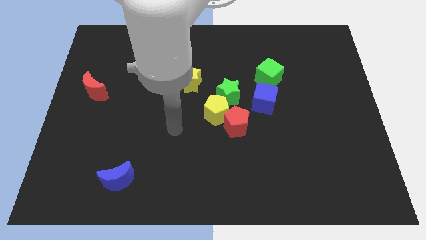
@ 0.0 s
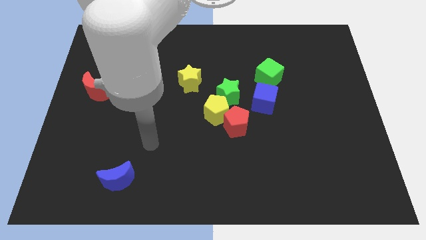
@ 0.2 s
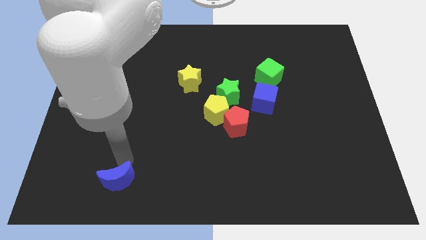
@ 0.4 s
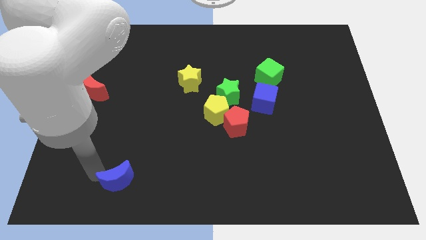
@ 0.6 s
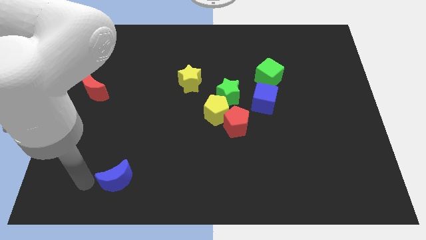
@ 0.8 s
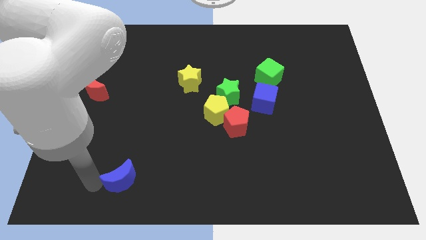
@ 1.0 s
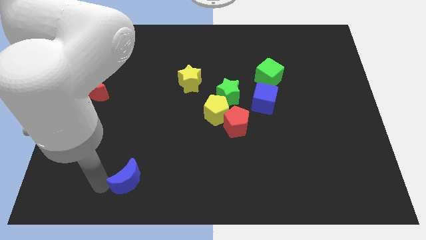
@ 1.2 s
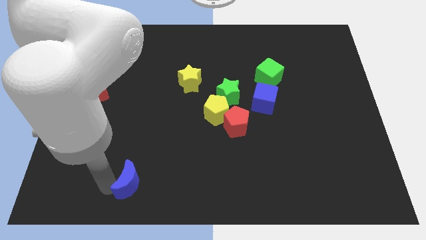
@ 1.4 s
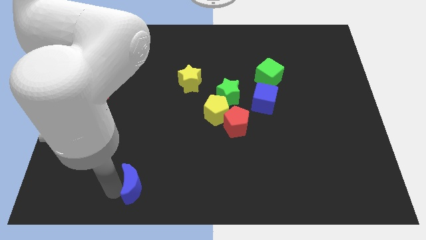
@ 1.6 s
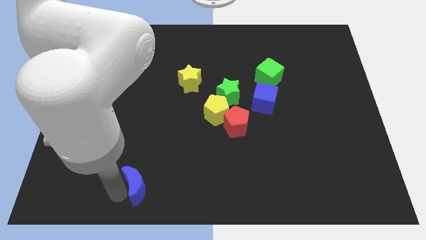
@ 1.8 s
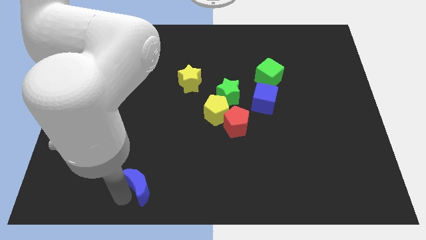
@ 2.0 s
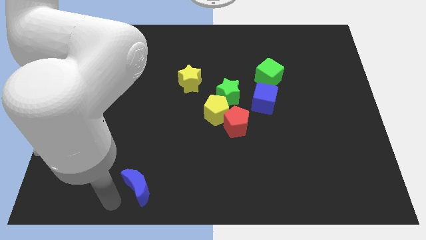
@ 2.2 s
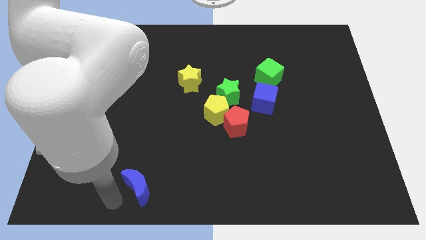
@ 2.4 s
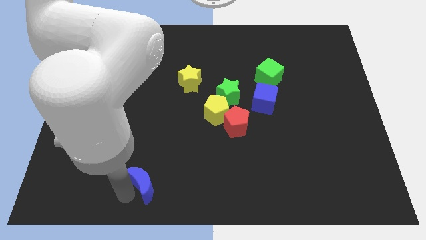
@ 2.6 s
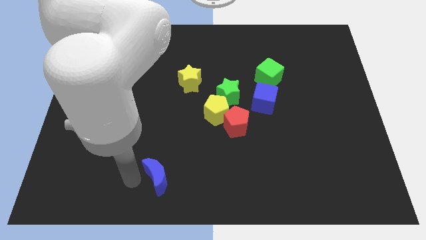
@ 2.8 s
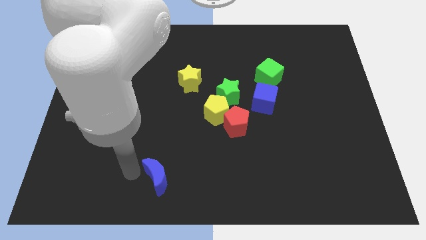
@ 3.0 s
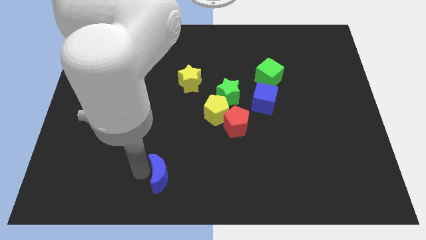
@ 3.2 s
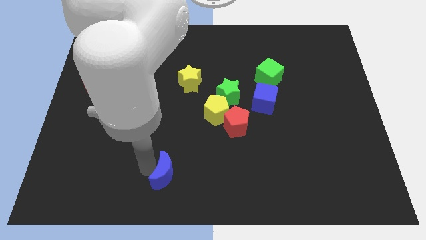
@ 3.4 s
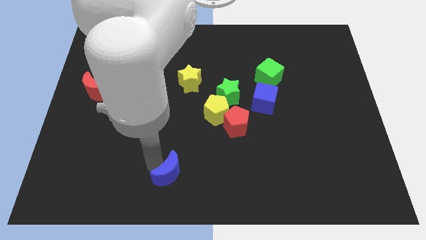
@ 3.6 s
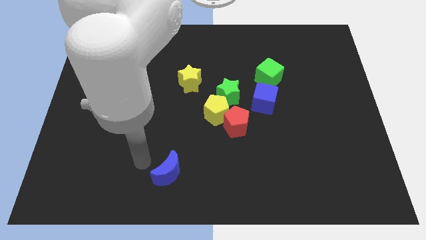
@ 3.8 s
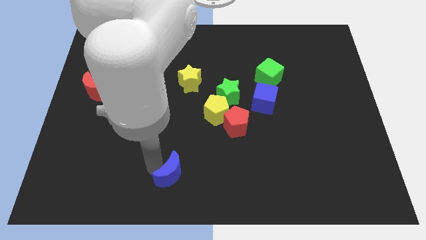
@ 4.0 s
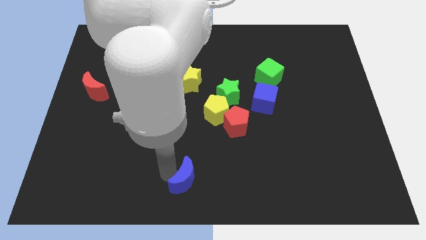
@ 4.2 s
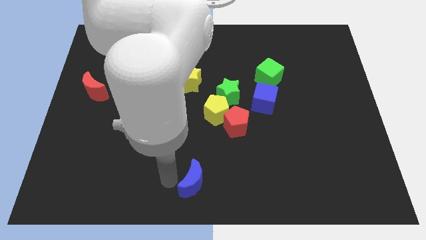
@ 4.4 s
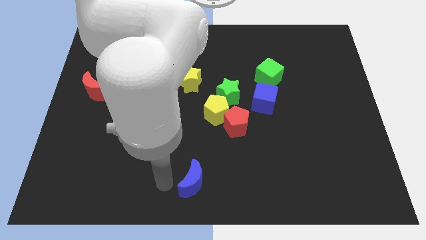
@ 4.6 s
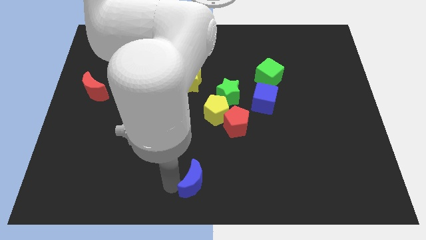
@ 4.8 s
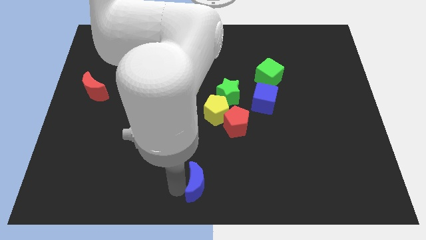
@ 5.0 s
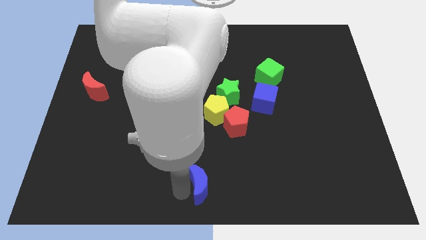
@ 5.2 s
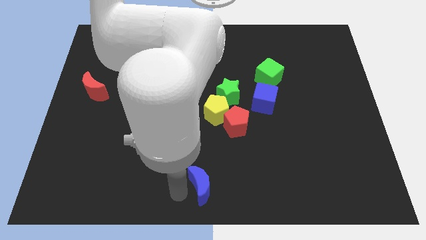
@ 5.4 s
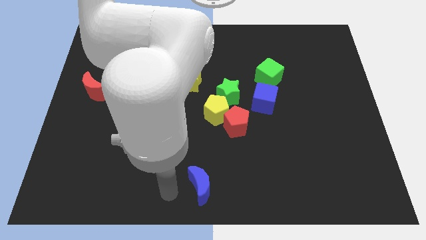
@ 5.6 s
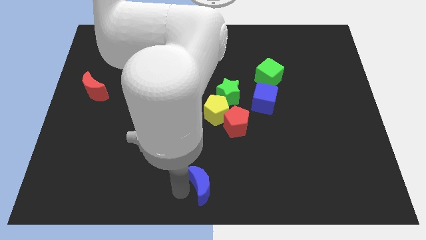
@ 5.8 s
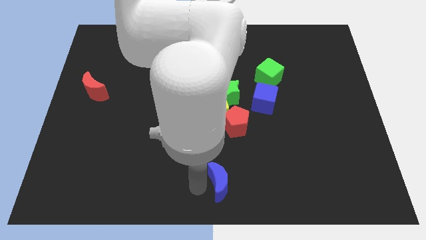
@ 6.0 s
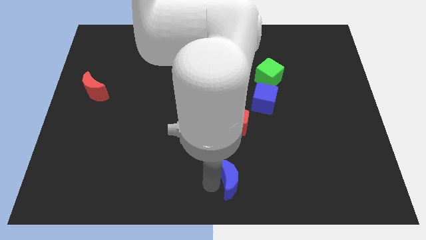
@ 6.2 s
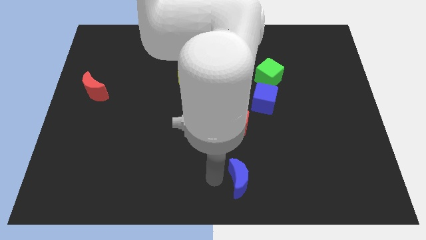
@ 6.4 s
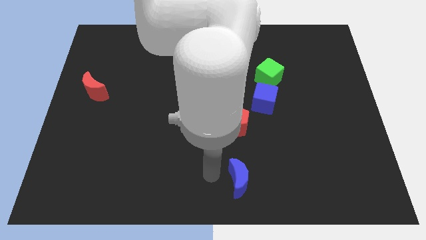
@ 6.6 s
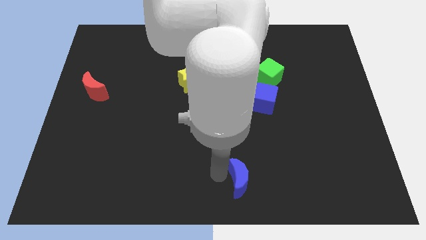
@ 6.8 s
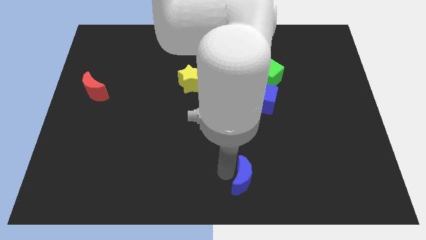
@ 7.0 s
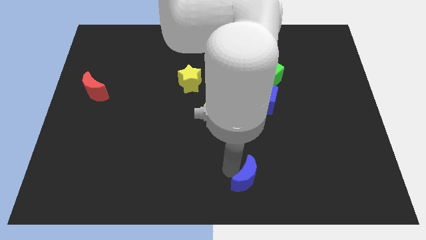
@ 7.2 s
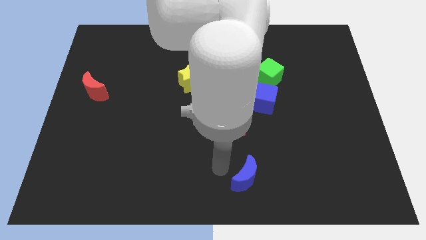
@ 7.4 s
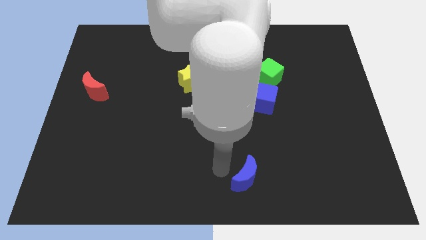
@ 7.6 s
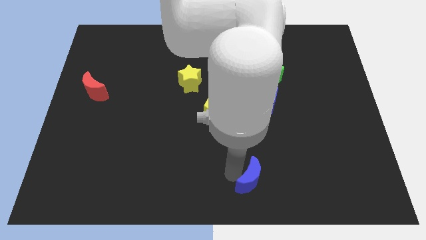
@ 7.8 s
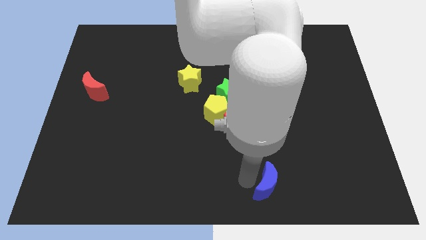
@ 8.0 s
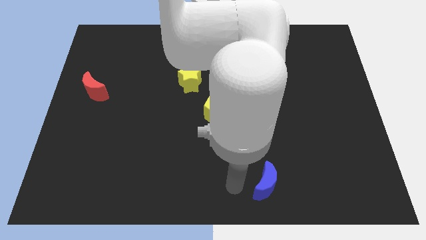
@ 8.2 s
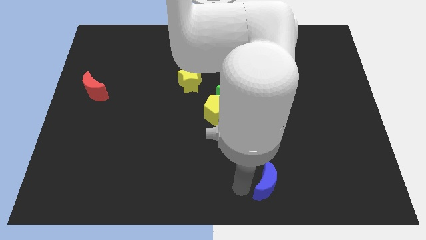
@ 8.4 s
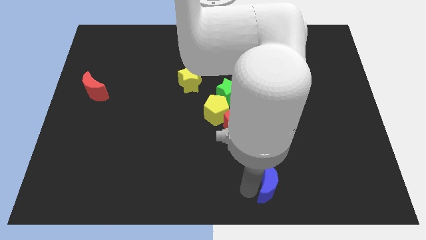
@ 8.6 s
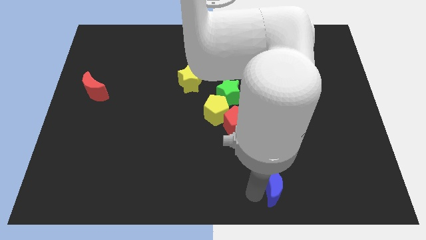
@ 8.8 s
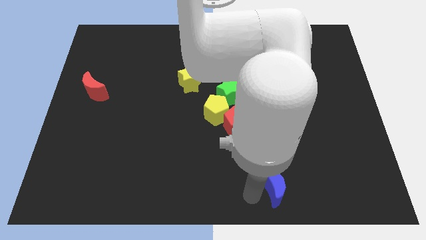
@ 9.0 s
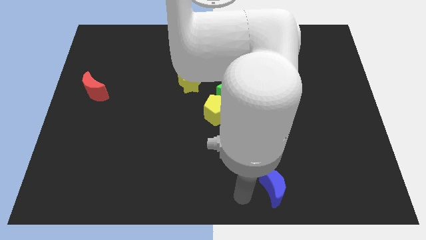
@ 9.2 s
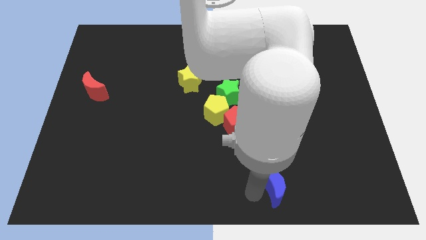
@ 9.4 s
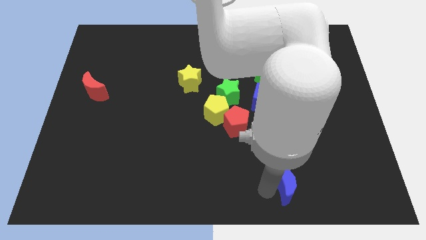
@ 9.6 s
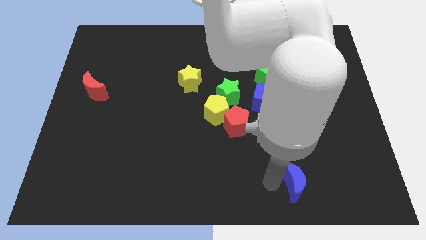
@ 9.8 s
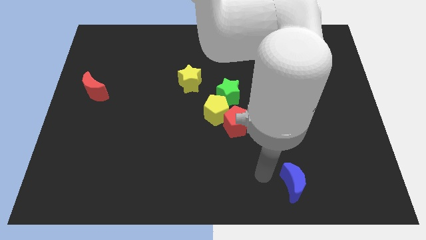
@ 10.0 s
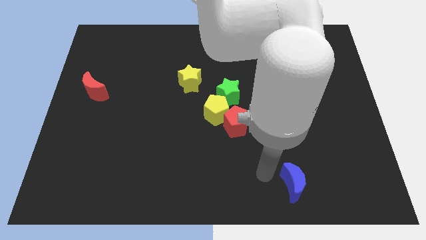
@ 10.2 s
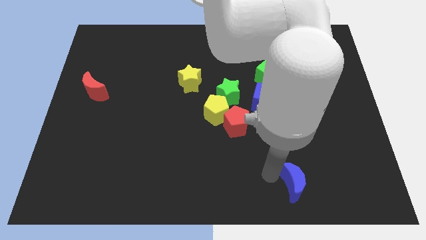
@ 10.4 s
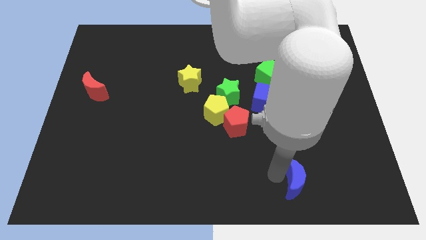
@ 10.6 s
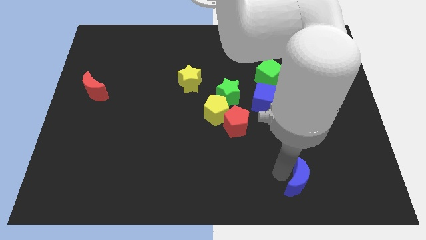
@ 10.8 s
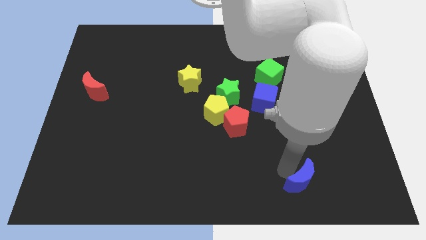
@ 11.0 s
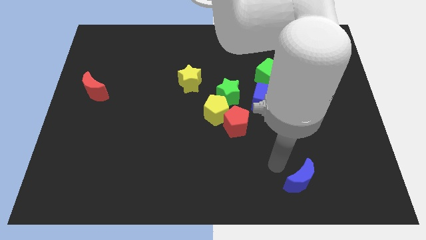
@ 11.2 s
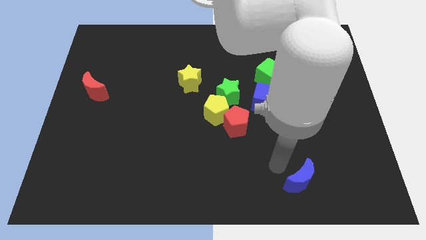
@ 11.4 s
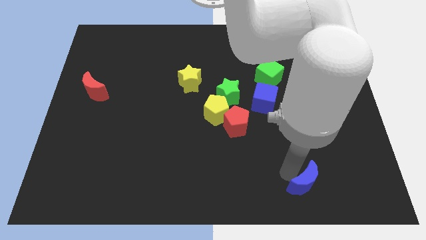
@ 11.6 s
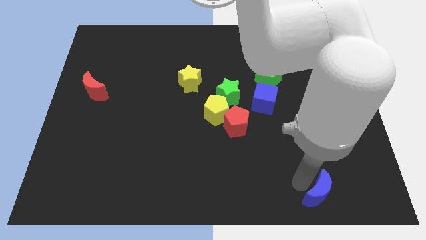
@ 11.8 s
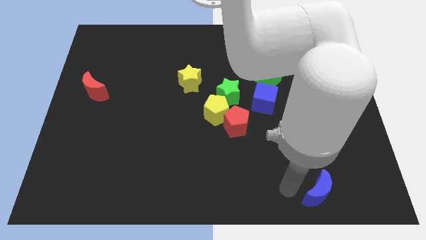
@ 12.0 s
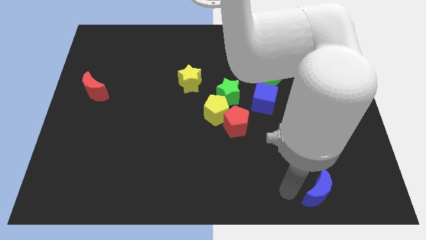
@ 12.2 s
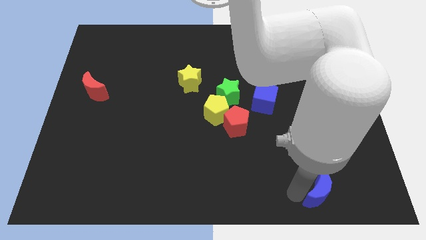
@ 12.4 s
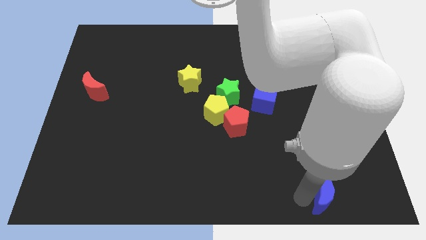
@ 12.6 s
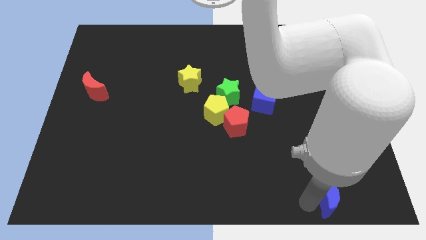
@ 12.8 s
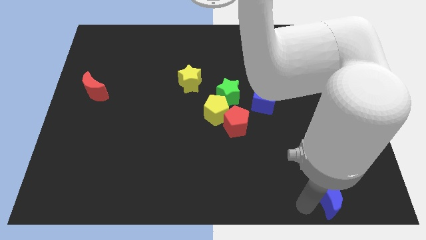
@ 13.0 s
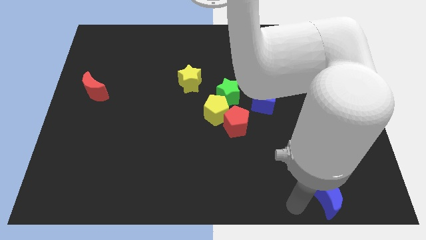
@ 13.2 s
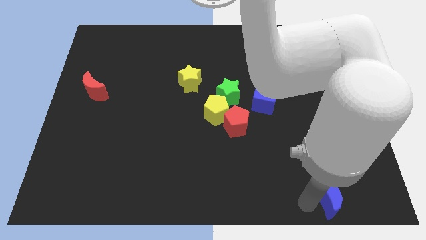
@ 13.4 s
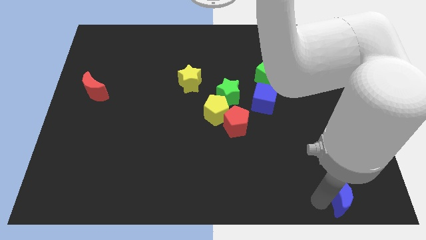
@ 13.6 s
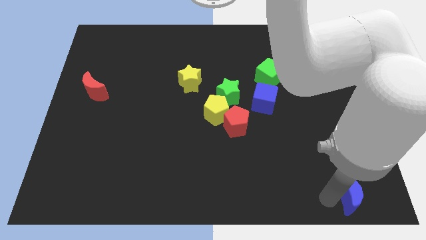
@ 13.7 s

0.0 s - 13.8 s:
put the blue moon to the bottom right corner
